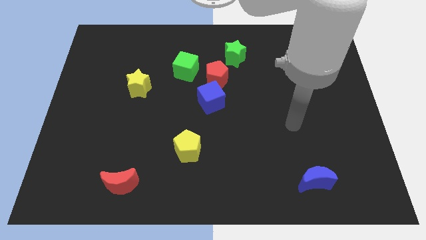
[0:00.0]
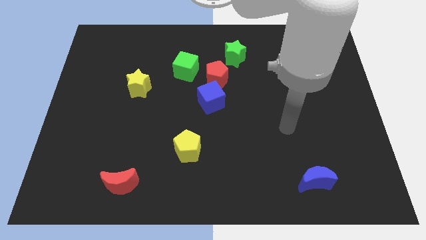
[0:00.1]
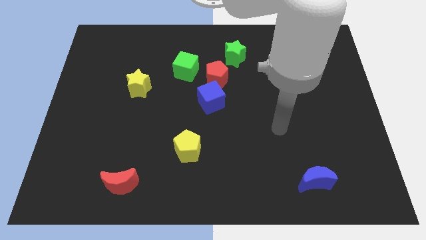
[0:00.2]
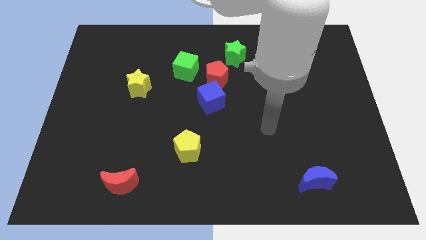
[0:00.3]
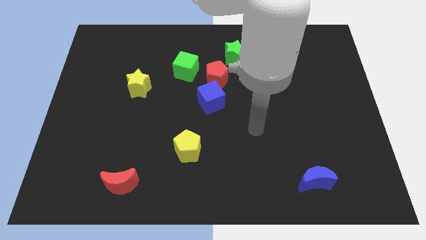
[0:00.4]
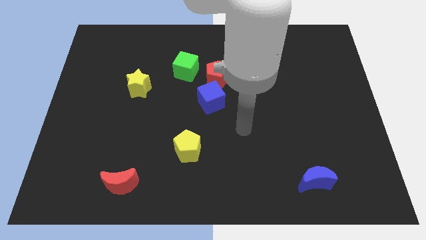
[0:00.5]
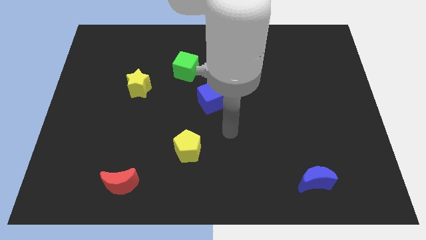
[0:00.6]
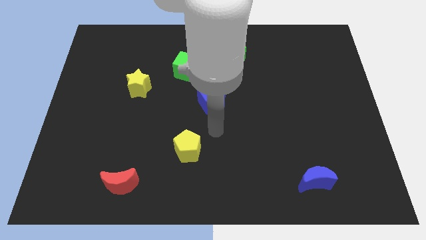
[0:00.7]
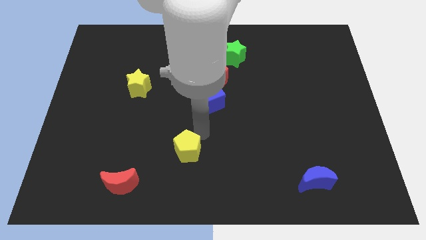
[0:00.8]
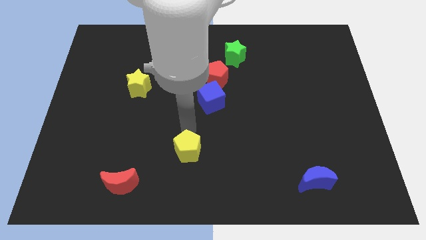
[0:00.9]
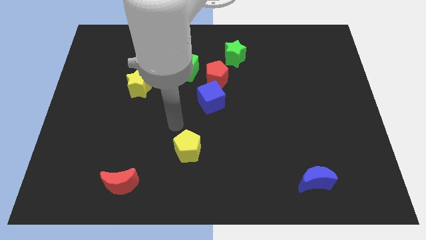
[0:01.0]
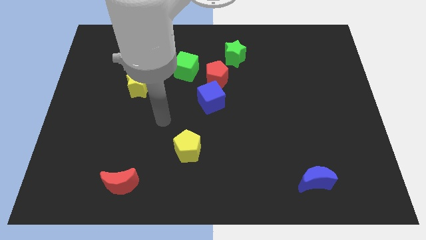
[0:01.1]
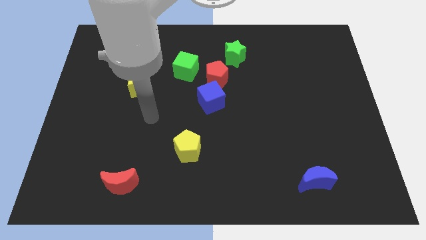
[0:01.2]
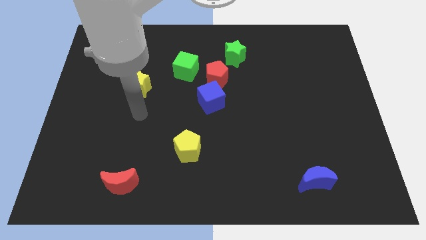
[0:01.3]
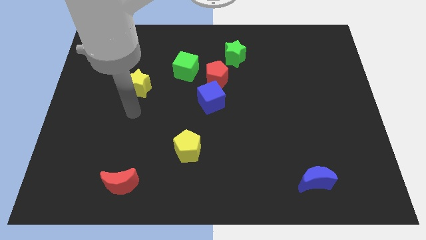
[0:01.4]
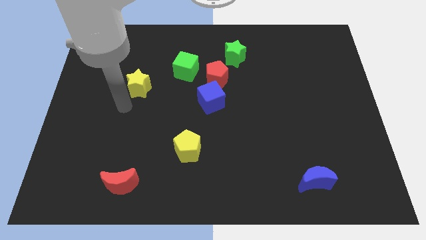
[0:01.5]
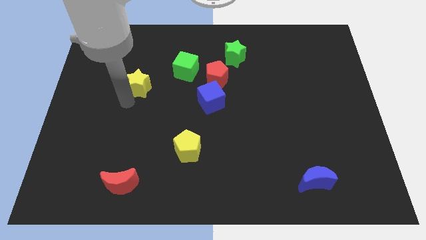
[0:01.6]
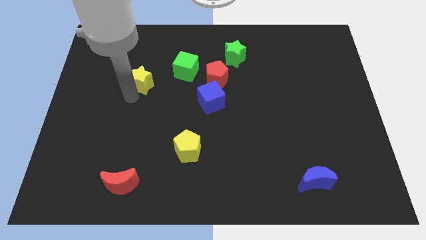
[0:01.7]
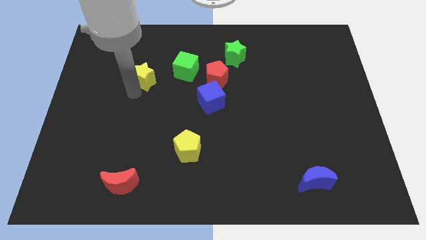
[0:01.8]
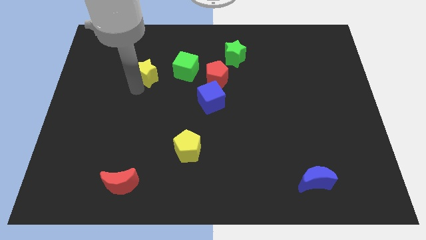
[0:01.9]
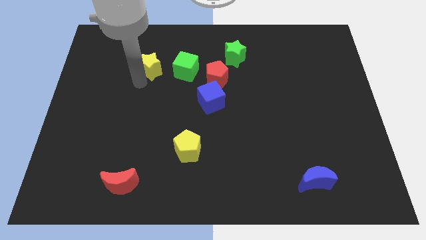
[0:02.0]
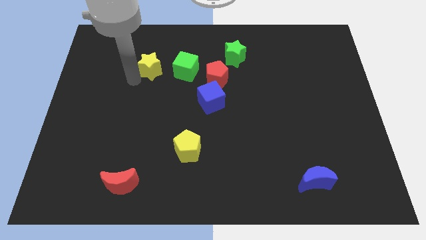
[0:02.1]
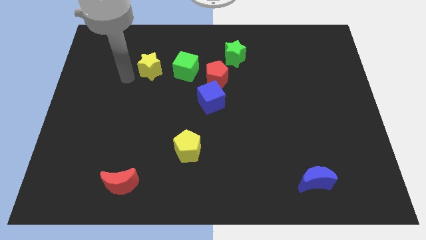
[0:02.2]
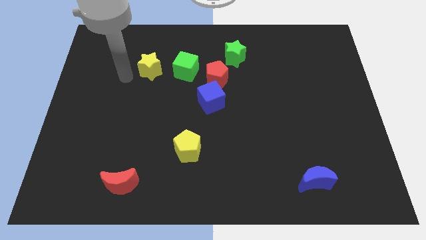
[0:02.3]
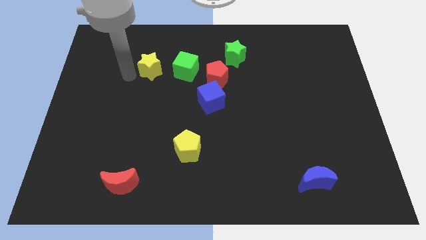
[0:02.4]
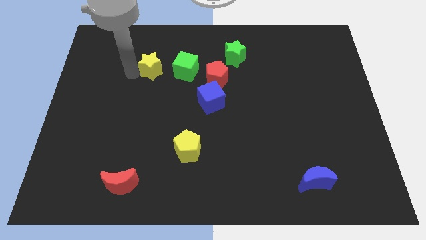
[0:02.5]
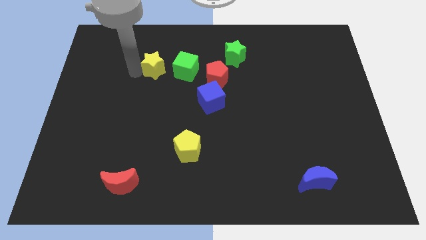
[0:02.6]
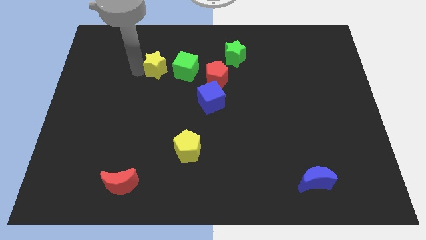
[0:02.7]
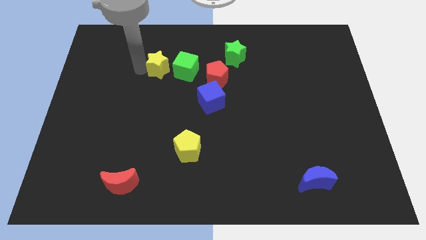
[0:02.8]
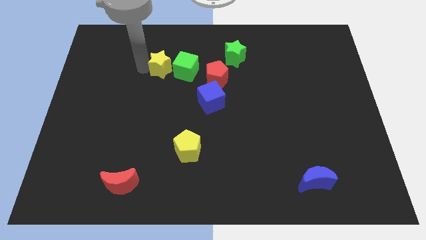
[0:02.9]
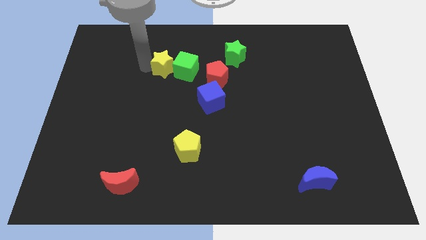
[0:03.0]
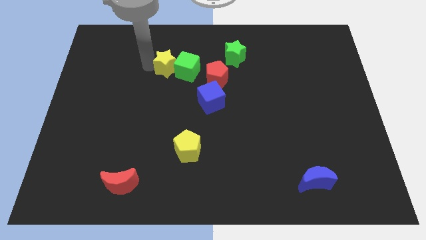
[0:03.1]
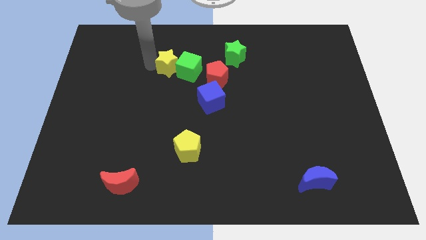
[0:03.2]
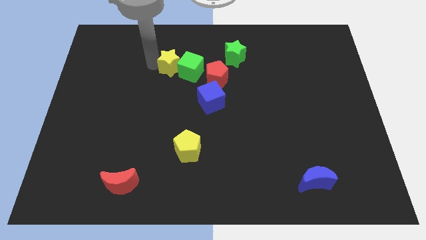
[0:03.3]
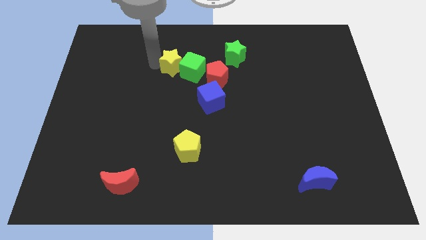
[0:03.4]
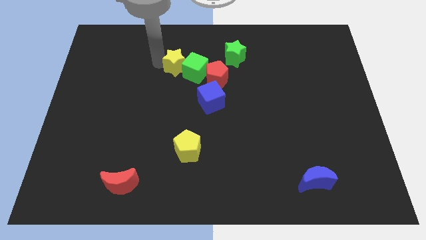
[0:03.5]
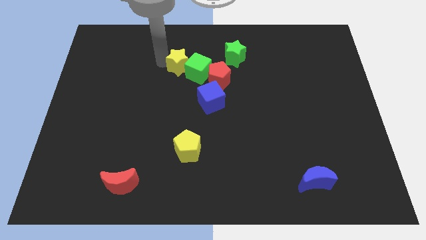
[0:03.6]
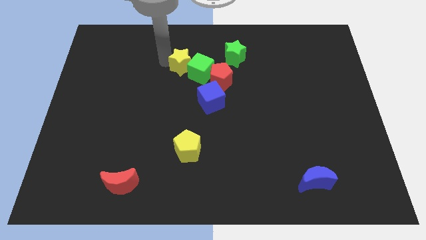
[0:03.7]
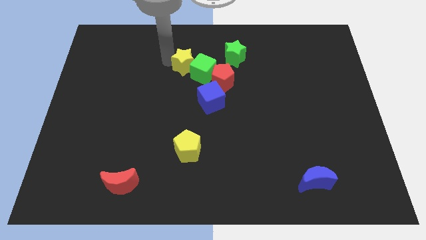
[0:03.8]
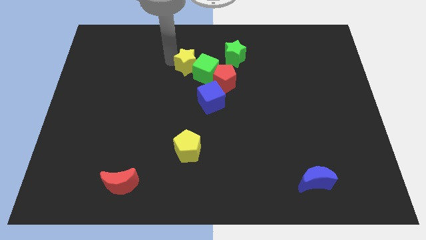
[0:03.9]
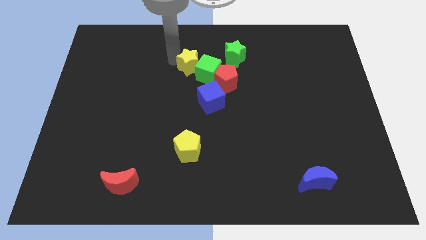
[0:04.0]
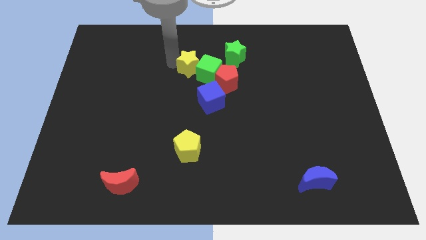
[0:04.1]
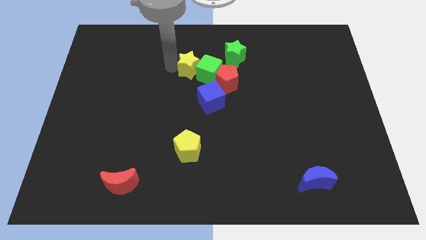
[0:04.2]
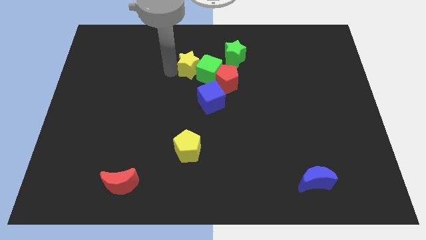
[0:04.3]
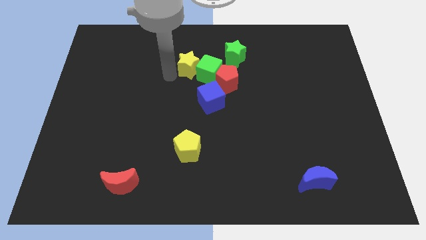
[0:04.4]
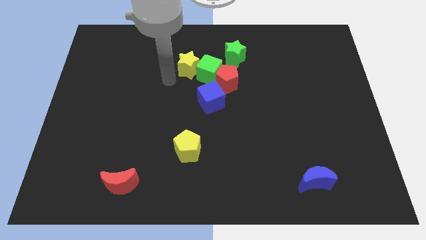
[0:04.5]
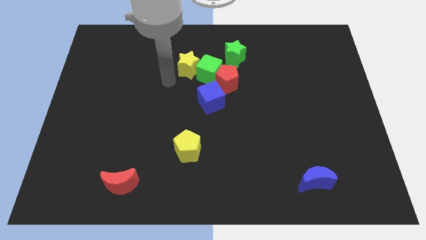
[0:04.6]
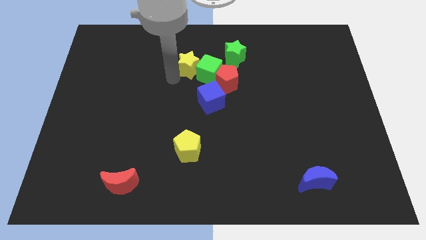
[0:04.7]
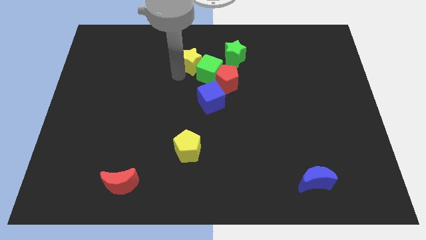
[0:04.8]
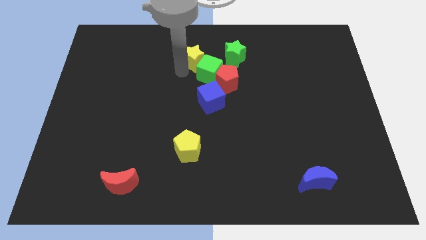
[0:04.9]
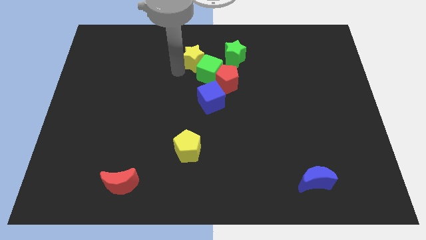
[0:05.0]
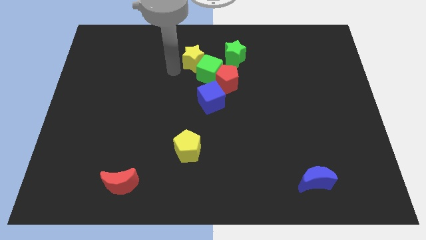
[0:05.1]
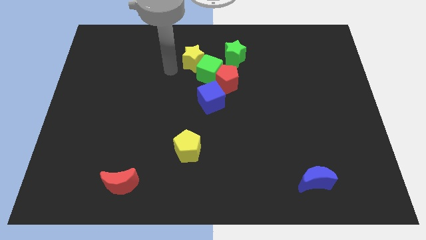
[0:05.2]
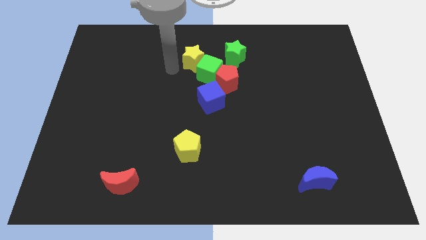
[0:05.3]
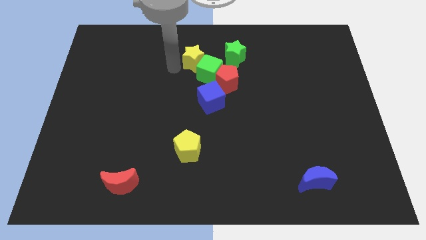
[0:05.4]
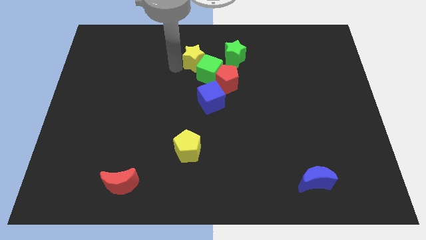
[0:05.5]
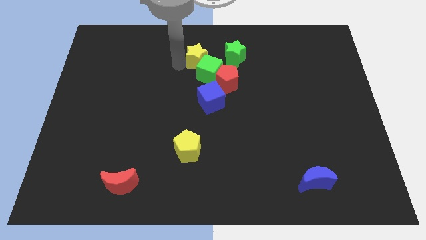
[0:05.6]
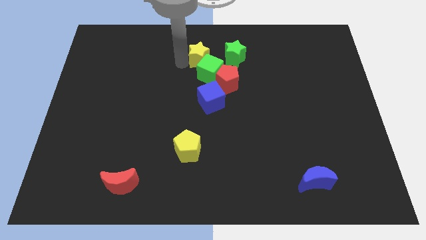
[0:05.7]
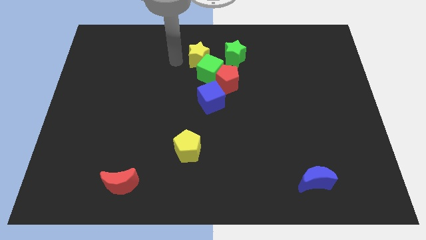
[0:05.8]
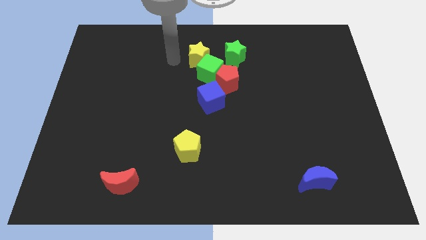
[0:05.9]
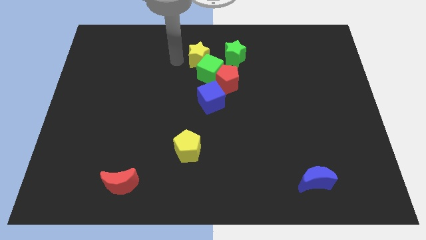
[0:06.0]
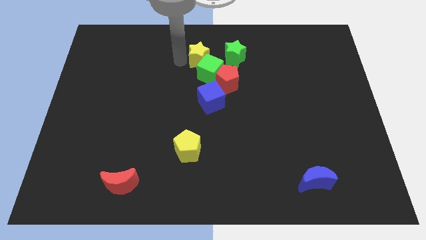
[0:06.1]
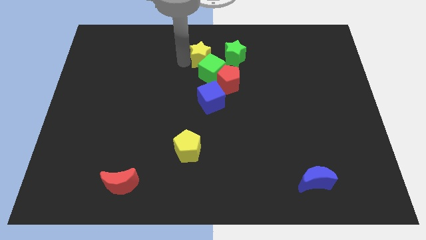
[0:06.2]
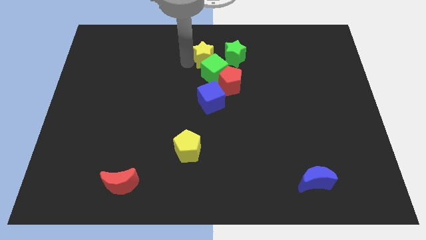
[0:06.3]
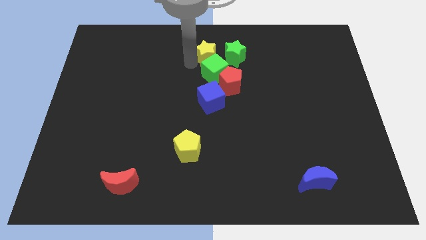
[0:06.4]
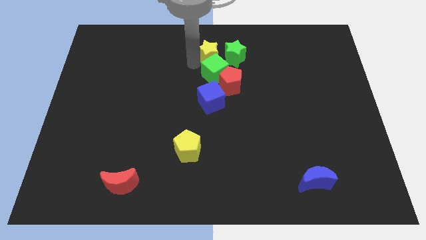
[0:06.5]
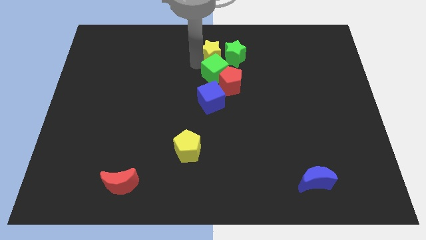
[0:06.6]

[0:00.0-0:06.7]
slide the yellow star close to the green star

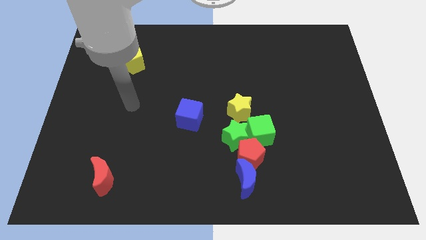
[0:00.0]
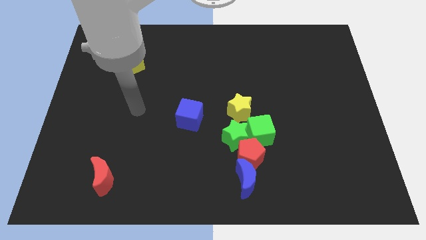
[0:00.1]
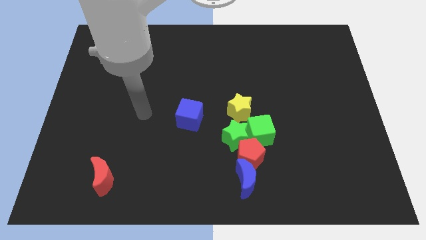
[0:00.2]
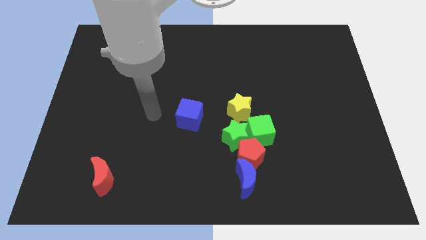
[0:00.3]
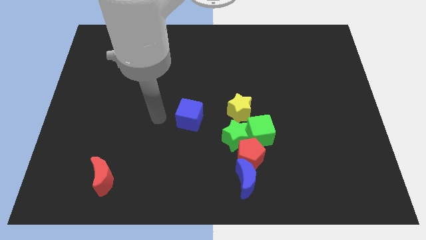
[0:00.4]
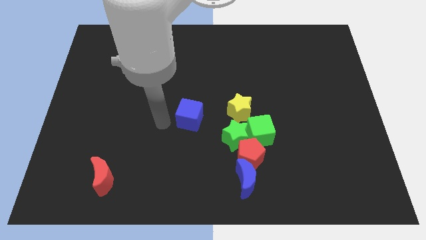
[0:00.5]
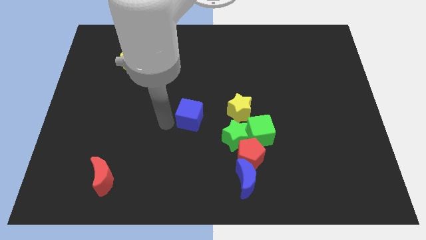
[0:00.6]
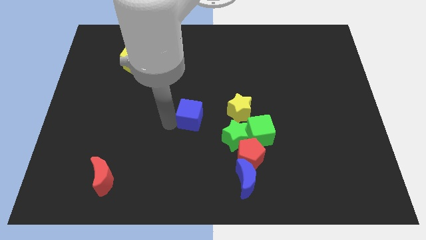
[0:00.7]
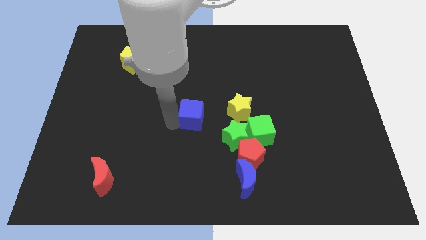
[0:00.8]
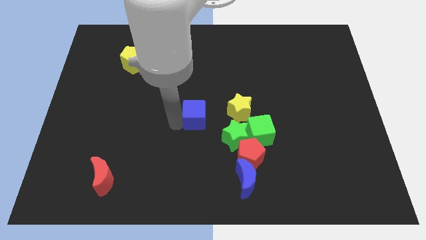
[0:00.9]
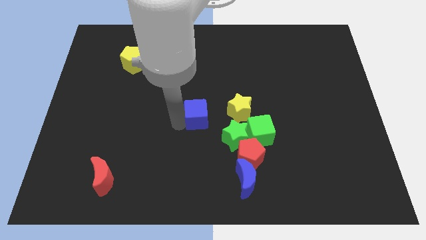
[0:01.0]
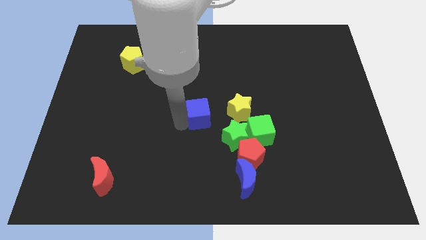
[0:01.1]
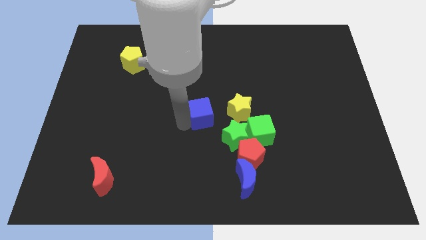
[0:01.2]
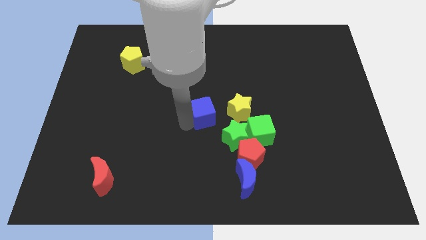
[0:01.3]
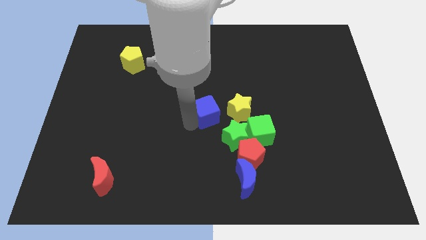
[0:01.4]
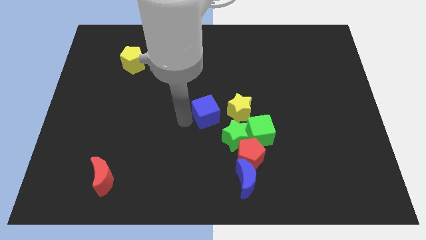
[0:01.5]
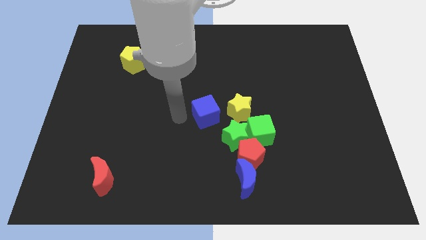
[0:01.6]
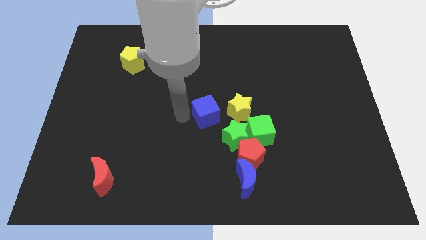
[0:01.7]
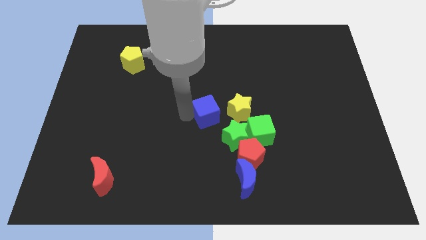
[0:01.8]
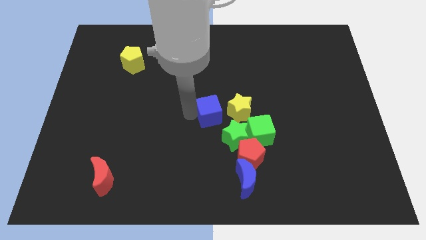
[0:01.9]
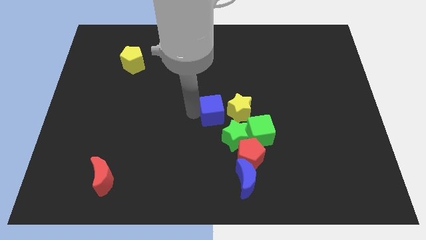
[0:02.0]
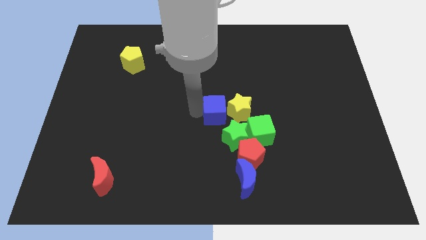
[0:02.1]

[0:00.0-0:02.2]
move the blue cube towards the yellow star
